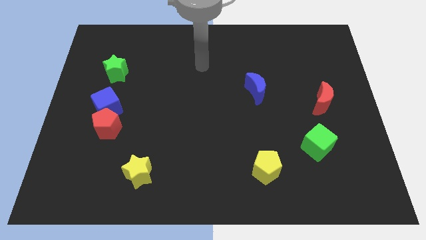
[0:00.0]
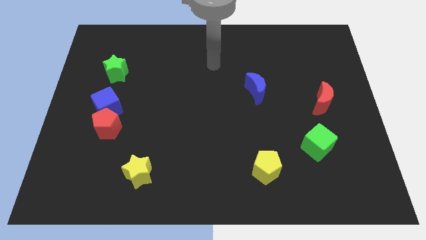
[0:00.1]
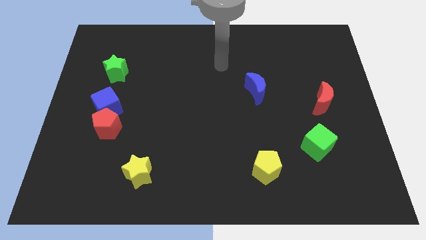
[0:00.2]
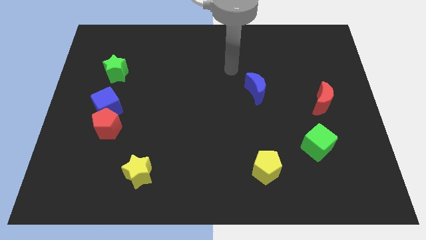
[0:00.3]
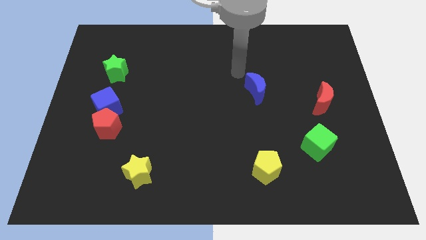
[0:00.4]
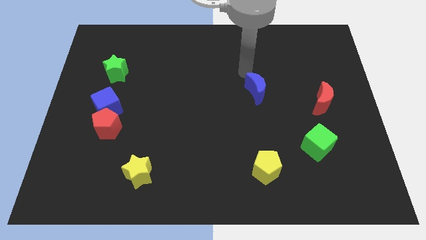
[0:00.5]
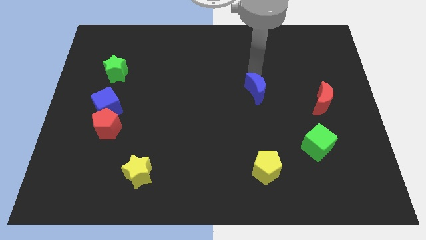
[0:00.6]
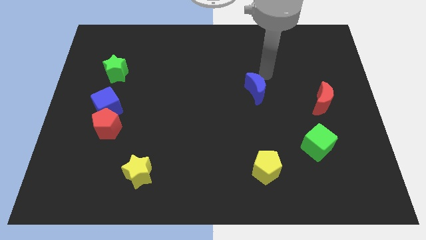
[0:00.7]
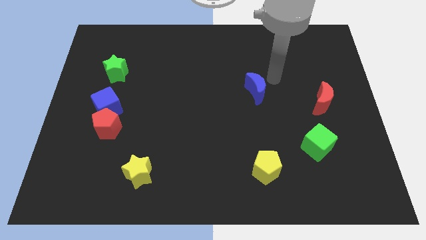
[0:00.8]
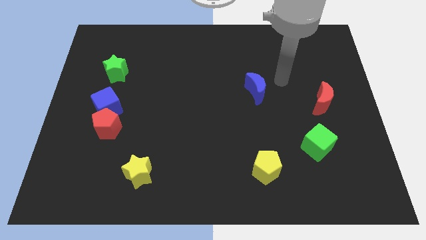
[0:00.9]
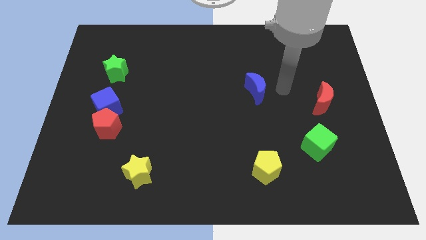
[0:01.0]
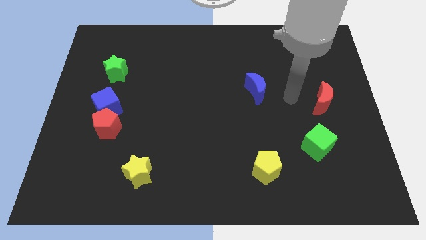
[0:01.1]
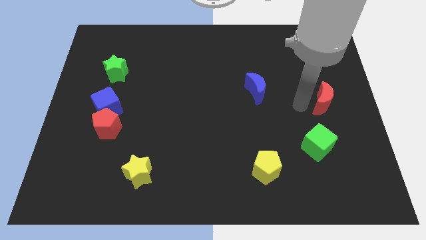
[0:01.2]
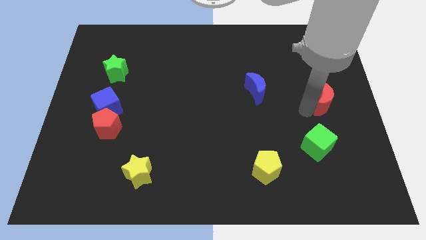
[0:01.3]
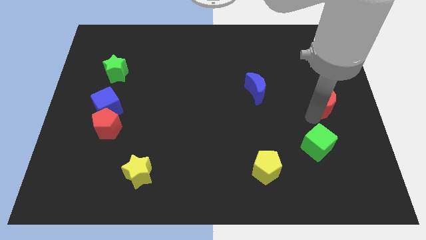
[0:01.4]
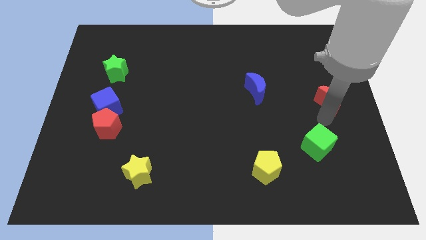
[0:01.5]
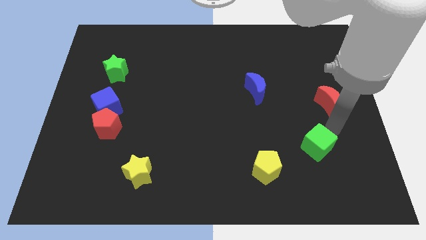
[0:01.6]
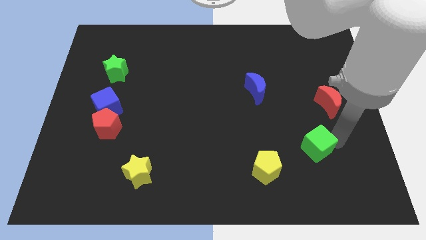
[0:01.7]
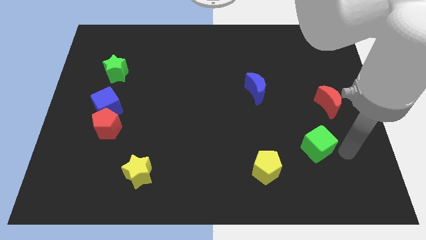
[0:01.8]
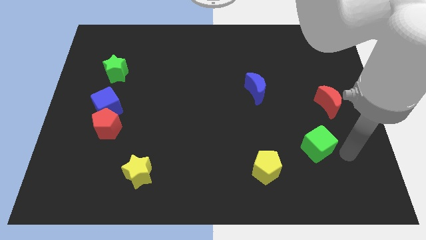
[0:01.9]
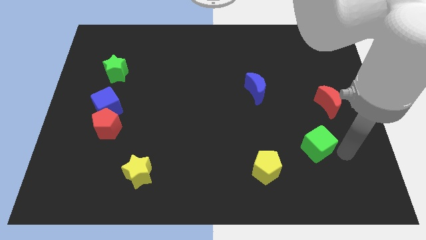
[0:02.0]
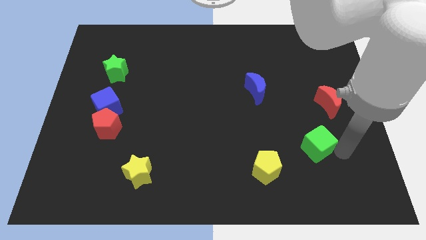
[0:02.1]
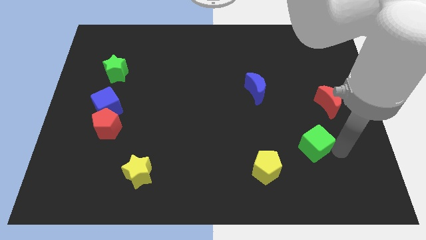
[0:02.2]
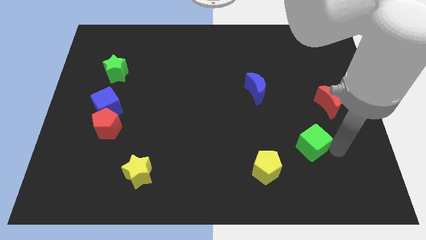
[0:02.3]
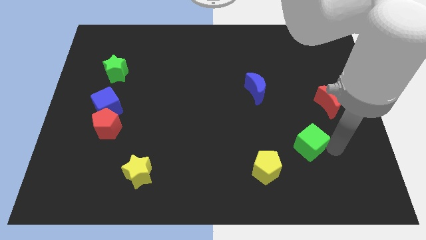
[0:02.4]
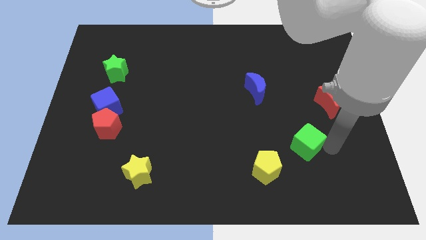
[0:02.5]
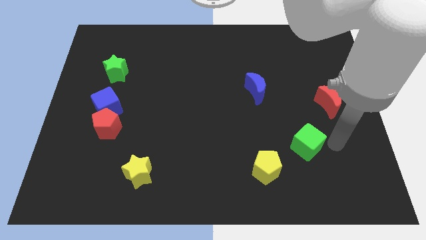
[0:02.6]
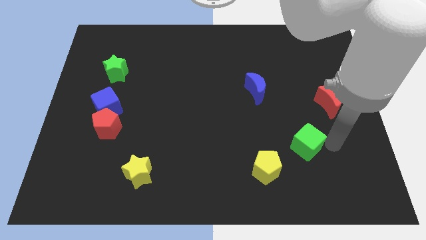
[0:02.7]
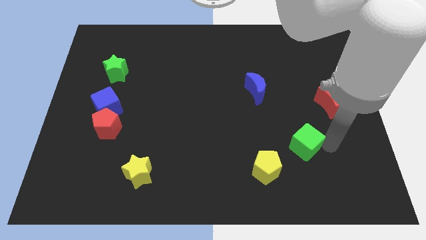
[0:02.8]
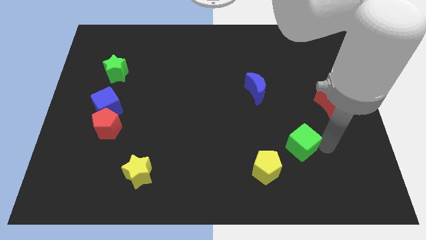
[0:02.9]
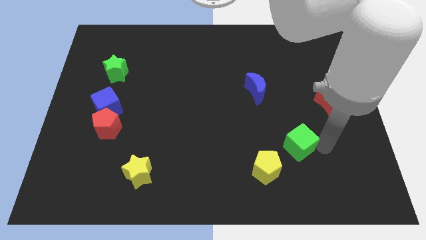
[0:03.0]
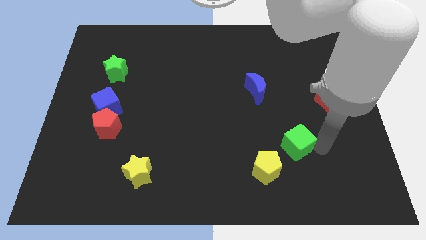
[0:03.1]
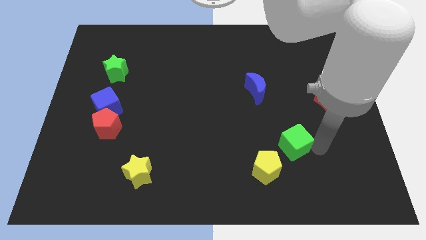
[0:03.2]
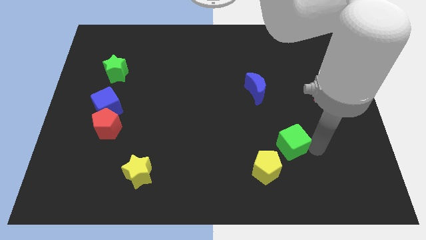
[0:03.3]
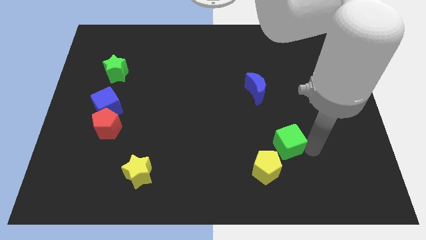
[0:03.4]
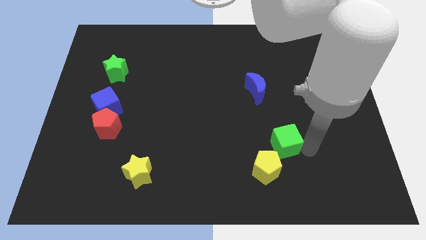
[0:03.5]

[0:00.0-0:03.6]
move the green cube to the left slightly

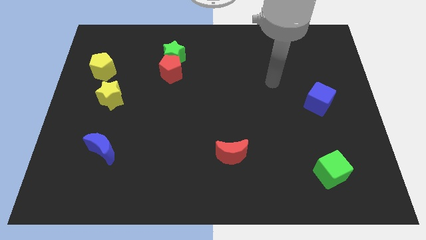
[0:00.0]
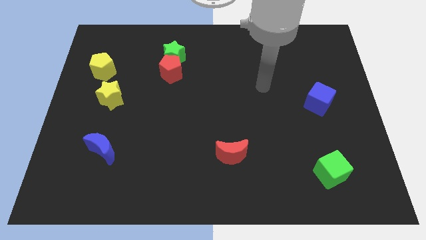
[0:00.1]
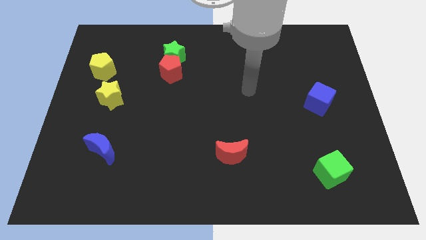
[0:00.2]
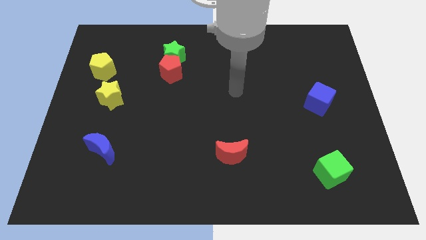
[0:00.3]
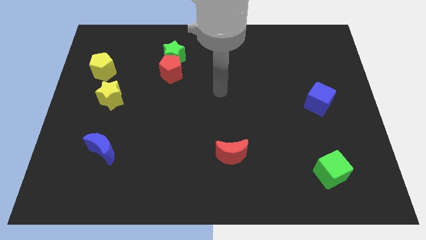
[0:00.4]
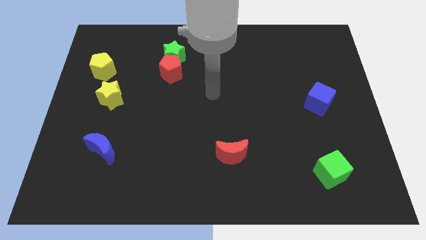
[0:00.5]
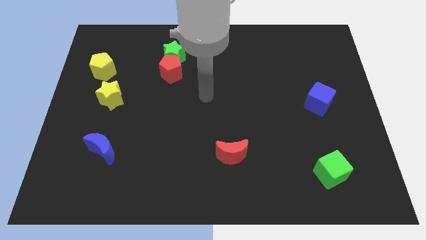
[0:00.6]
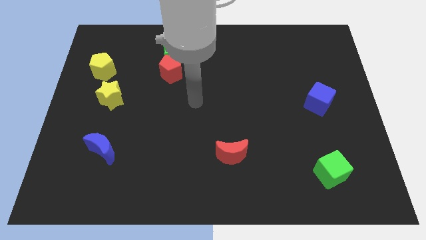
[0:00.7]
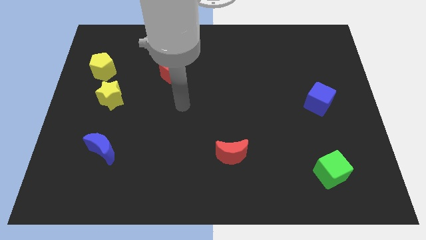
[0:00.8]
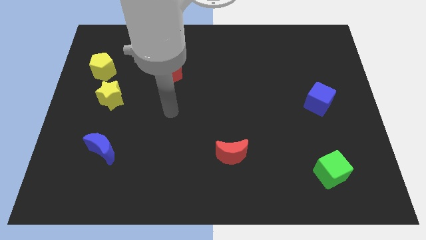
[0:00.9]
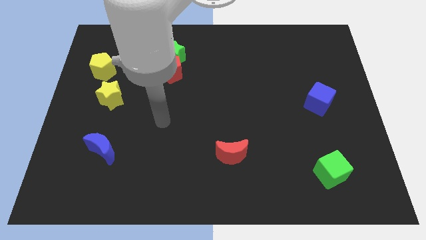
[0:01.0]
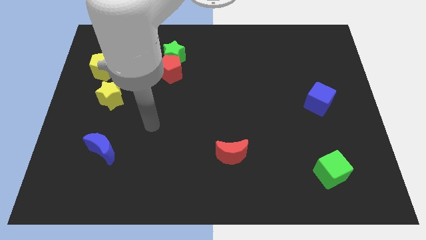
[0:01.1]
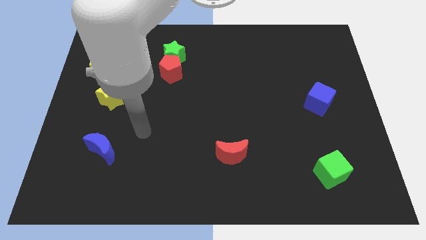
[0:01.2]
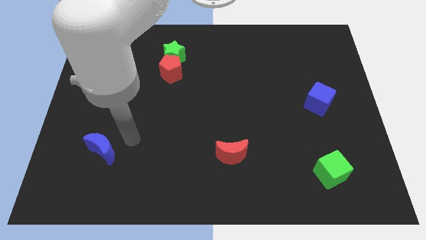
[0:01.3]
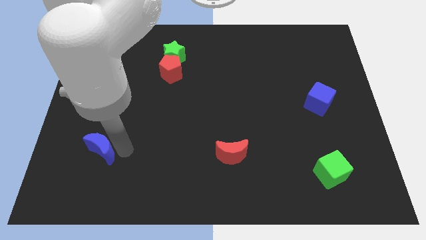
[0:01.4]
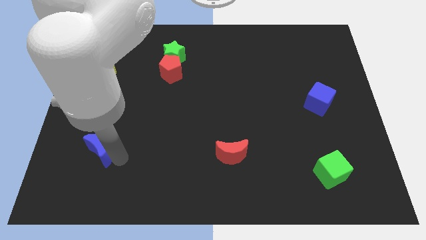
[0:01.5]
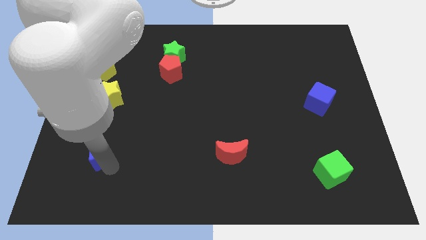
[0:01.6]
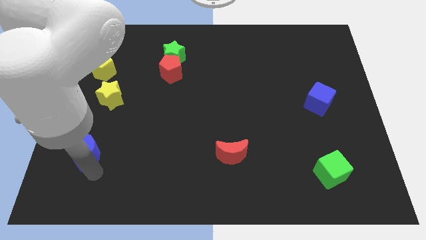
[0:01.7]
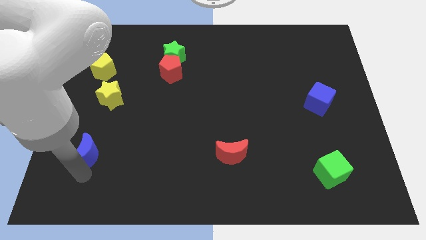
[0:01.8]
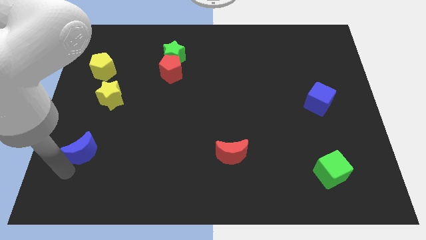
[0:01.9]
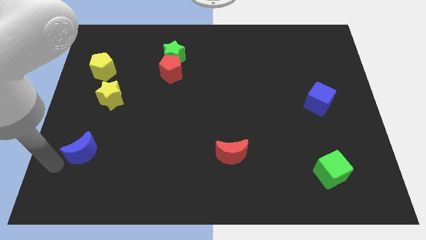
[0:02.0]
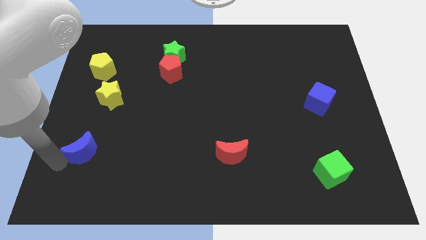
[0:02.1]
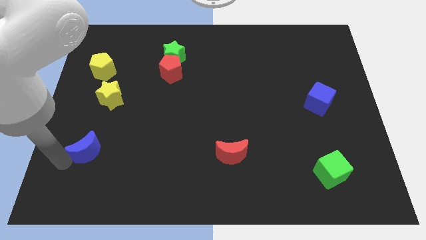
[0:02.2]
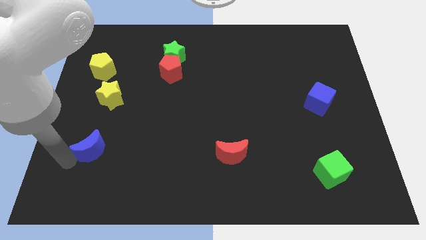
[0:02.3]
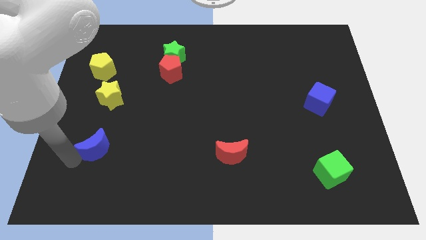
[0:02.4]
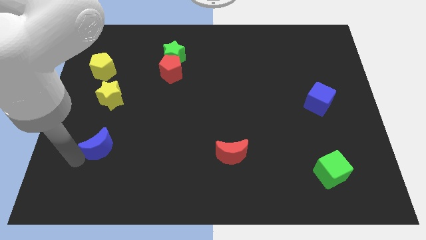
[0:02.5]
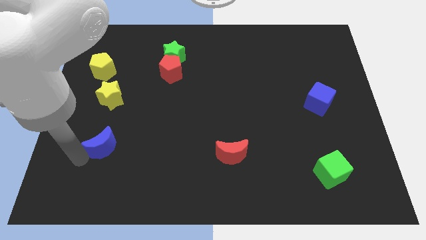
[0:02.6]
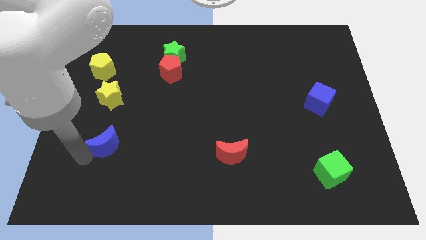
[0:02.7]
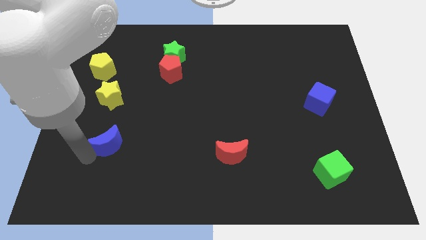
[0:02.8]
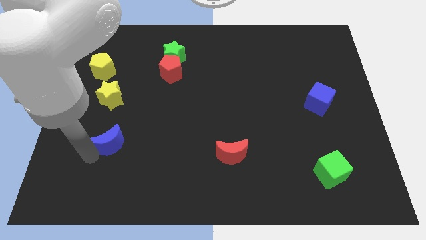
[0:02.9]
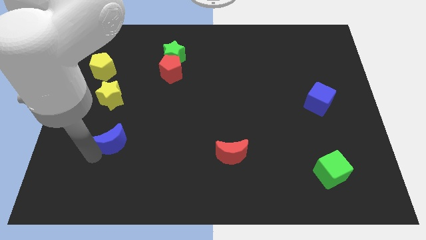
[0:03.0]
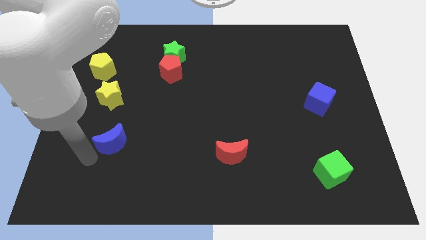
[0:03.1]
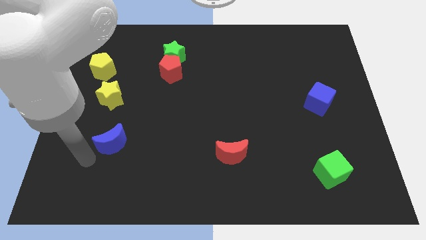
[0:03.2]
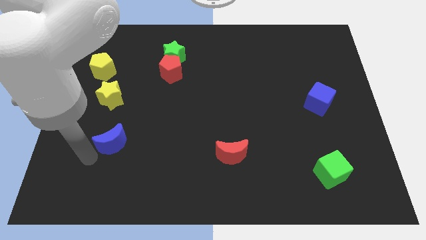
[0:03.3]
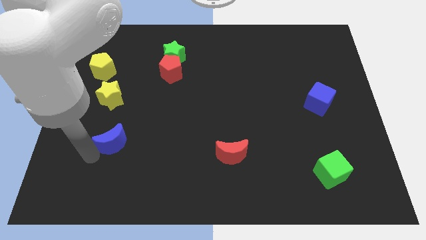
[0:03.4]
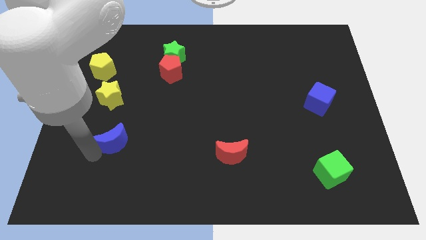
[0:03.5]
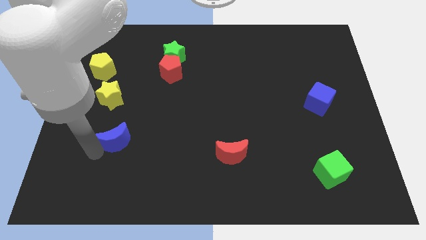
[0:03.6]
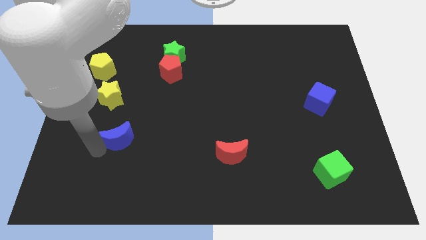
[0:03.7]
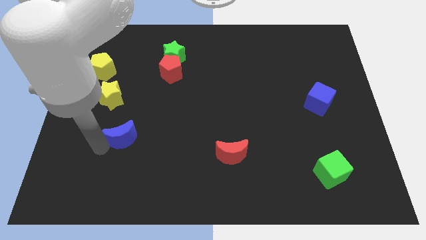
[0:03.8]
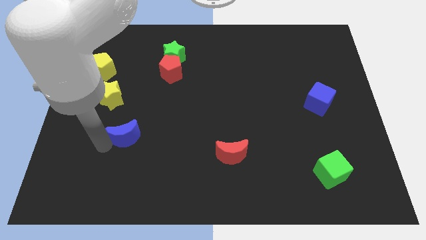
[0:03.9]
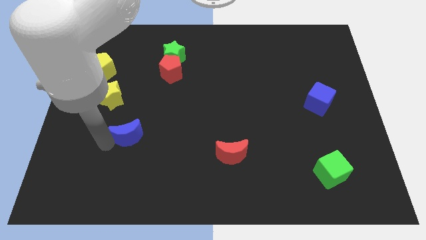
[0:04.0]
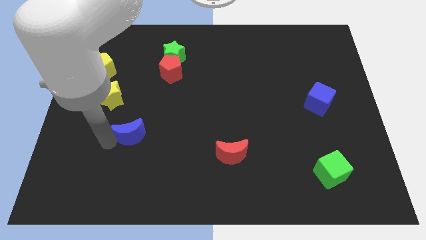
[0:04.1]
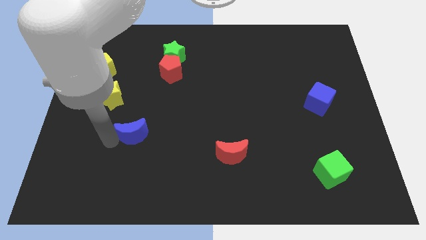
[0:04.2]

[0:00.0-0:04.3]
move the blue moon diagonally up and to the right a little bit
